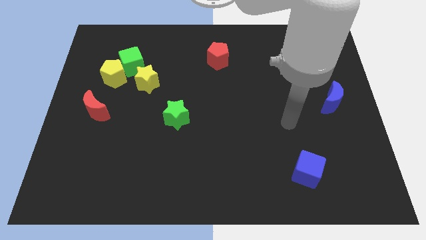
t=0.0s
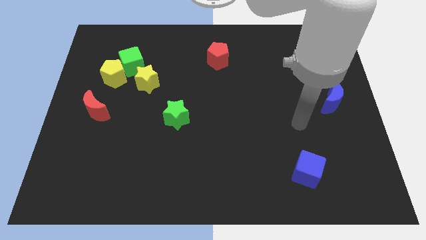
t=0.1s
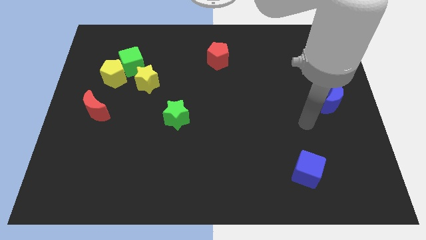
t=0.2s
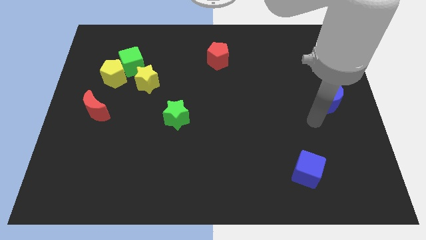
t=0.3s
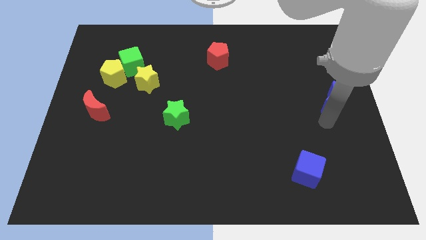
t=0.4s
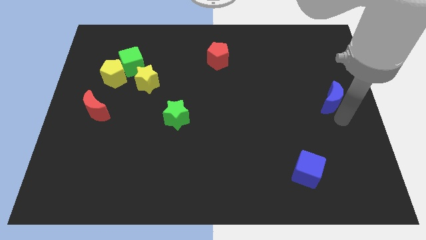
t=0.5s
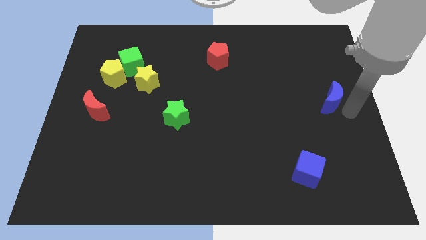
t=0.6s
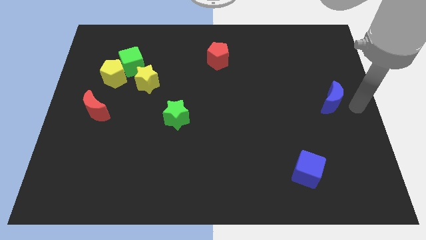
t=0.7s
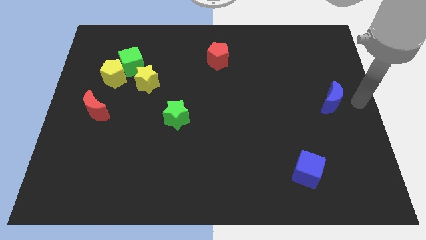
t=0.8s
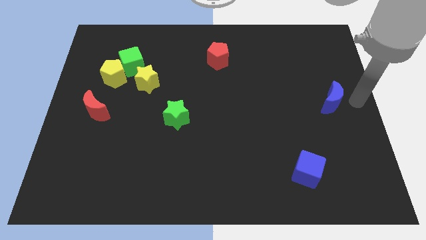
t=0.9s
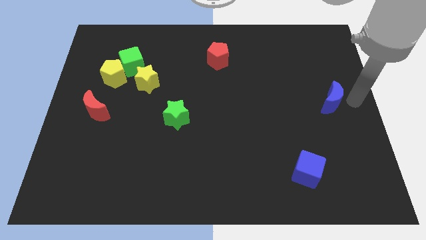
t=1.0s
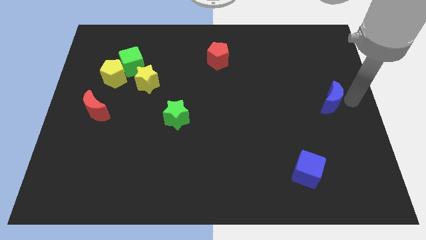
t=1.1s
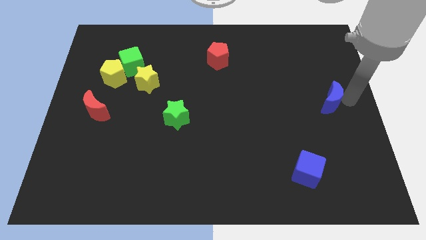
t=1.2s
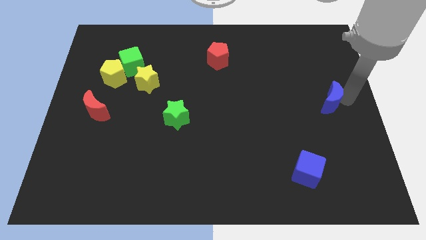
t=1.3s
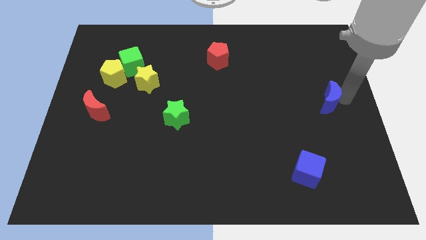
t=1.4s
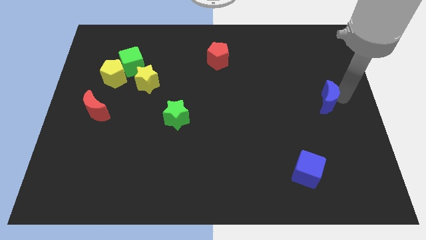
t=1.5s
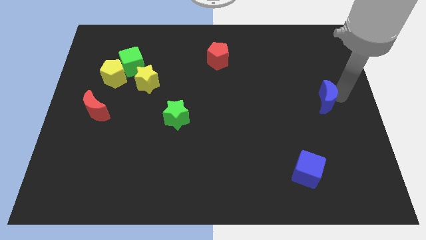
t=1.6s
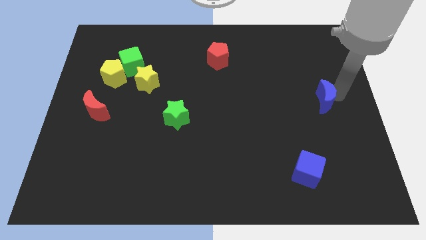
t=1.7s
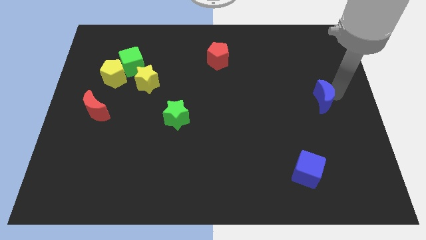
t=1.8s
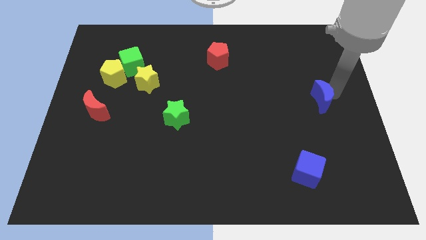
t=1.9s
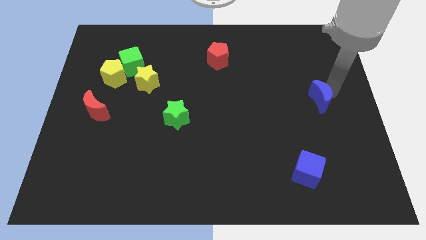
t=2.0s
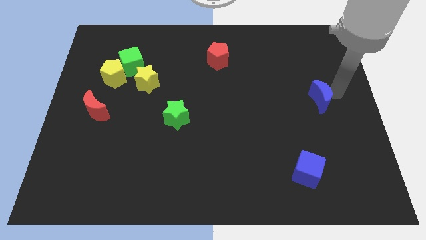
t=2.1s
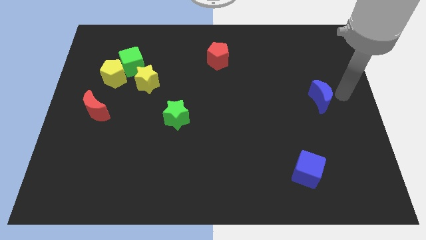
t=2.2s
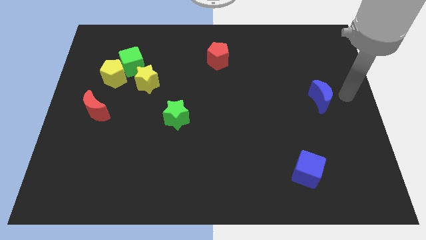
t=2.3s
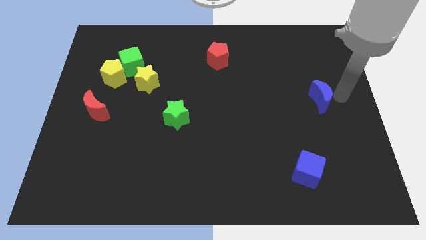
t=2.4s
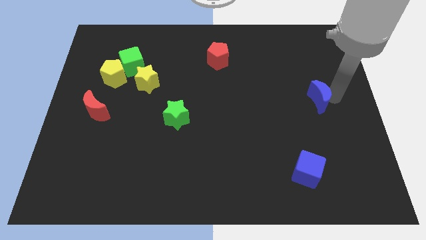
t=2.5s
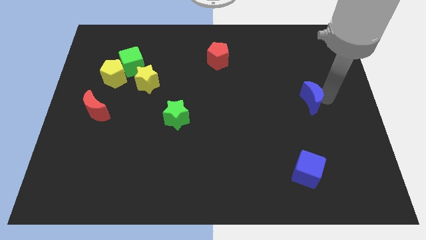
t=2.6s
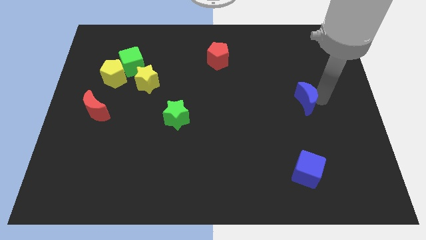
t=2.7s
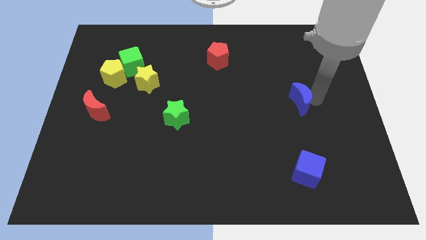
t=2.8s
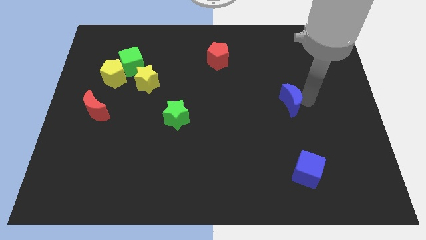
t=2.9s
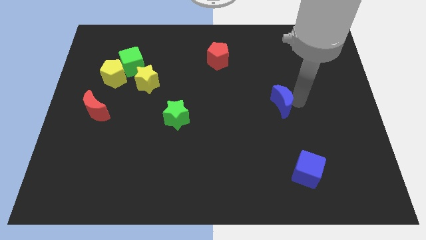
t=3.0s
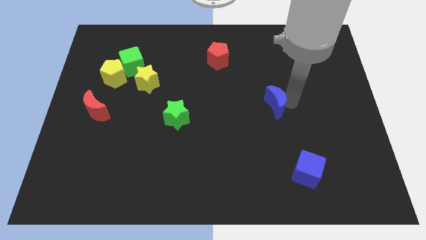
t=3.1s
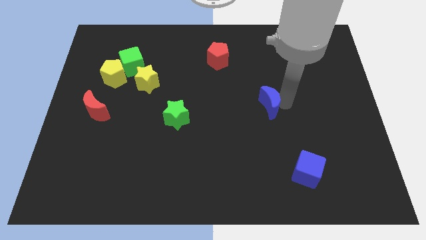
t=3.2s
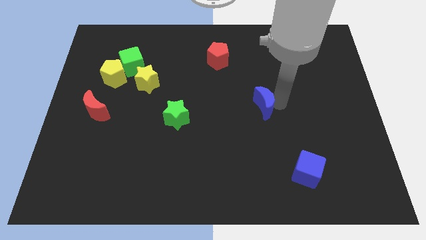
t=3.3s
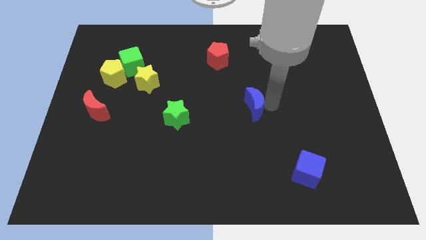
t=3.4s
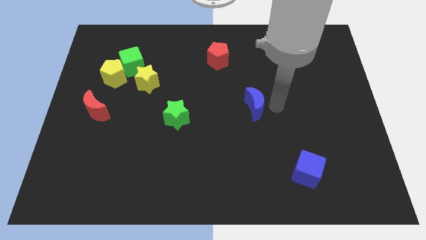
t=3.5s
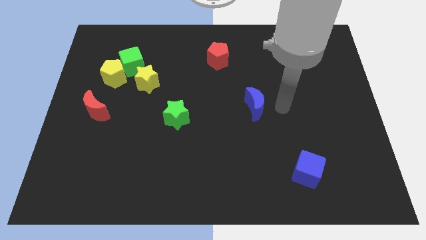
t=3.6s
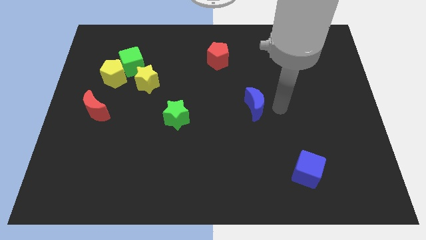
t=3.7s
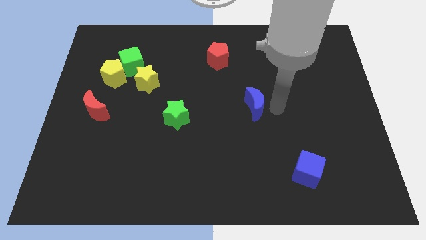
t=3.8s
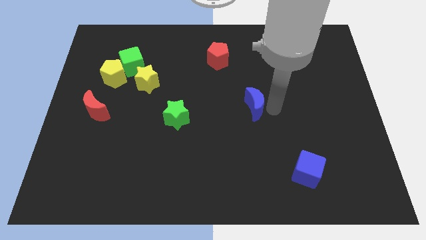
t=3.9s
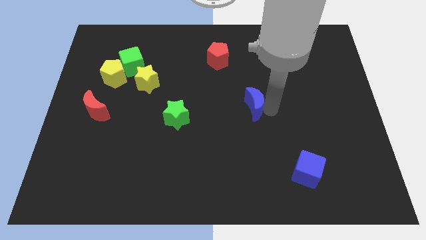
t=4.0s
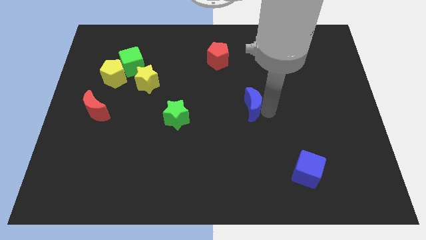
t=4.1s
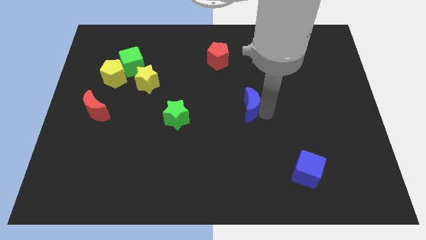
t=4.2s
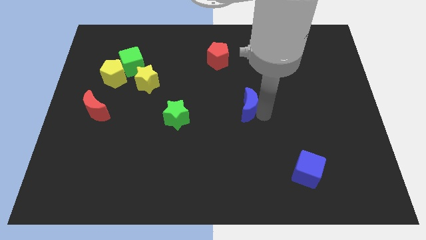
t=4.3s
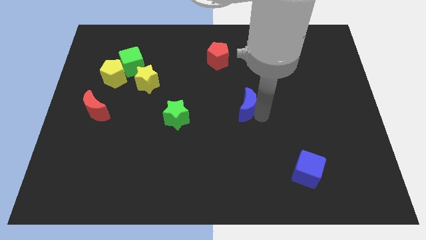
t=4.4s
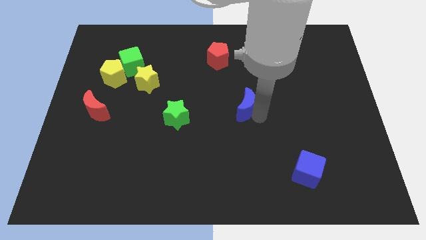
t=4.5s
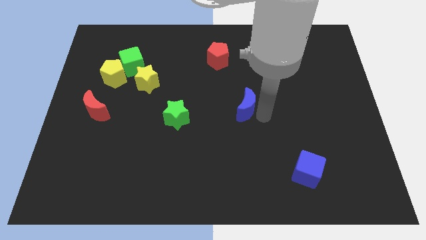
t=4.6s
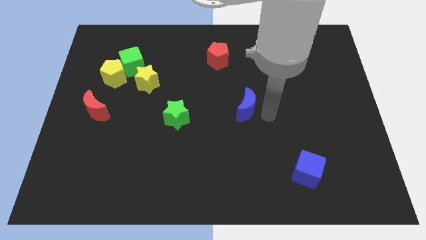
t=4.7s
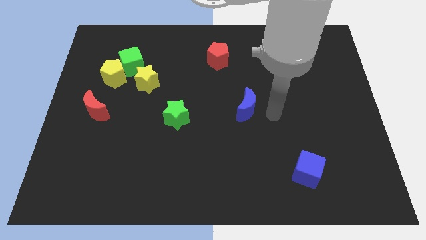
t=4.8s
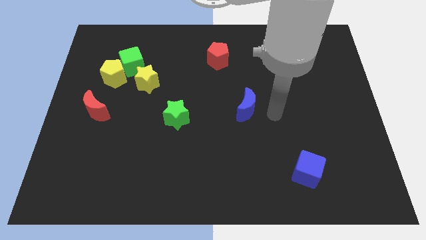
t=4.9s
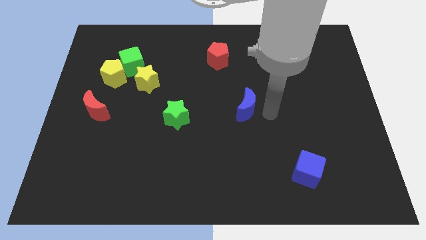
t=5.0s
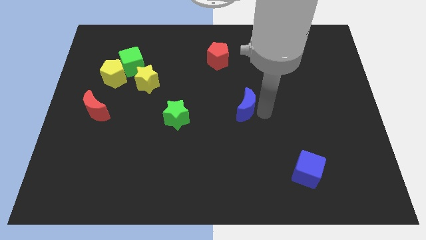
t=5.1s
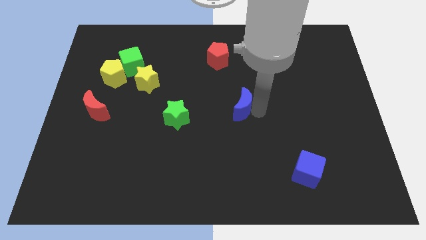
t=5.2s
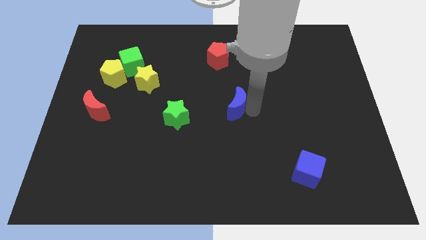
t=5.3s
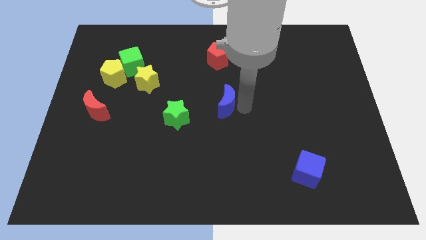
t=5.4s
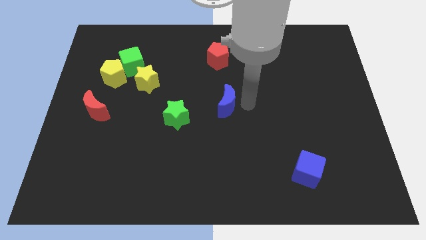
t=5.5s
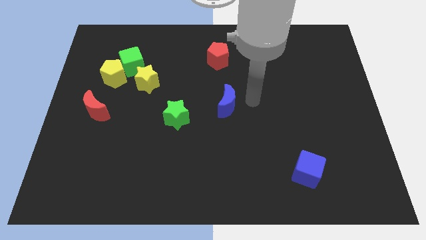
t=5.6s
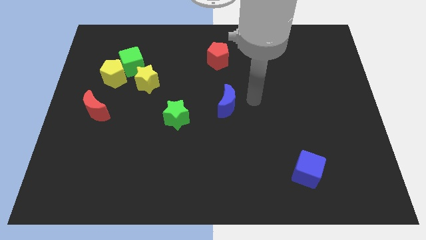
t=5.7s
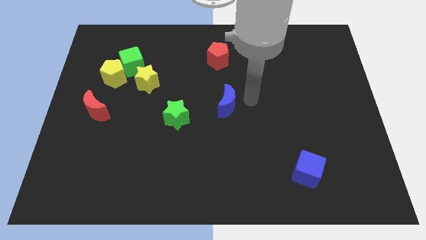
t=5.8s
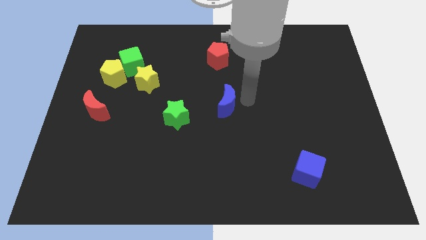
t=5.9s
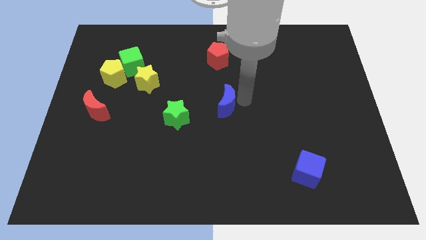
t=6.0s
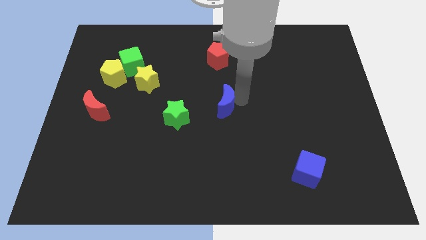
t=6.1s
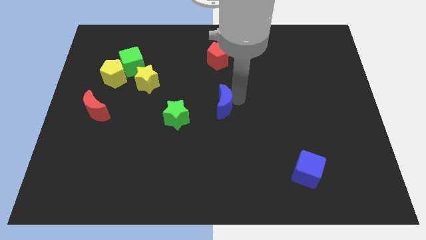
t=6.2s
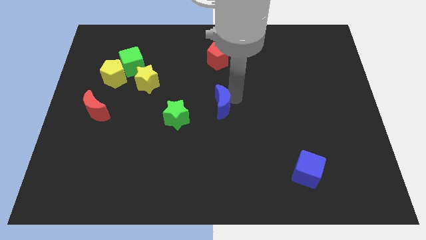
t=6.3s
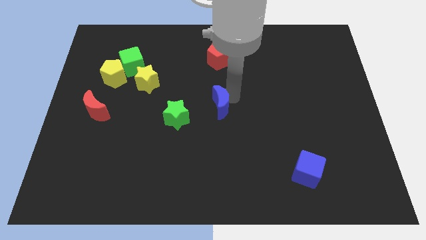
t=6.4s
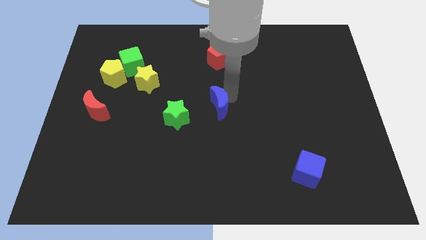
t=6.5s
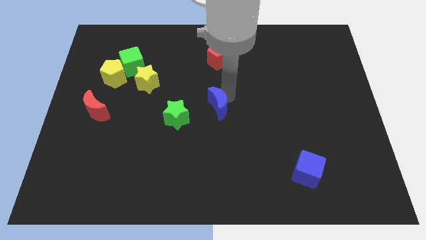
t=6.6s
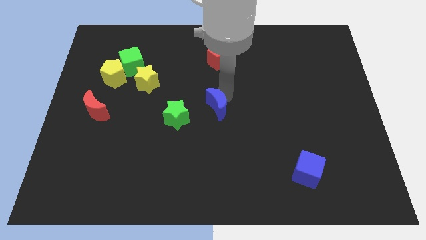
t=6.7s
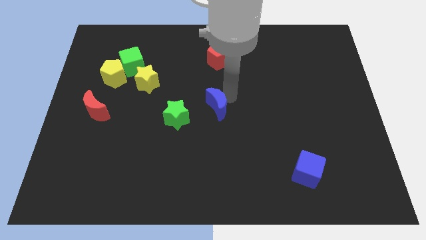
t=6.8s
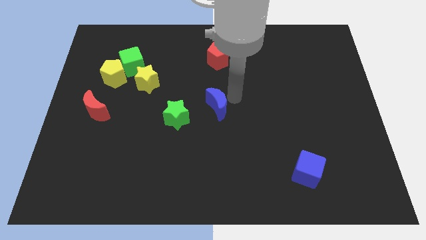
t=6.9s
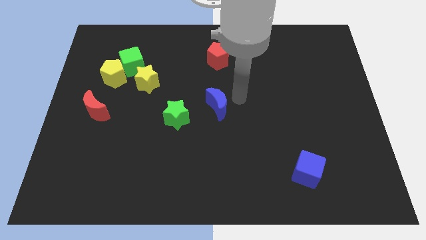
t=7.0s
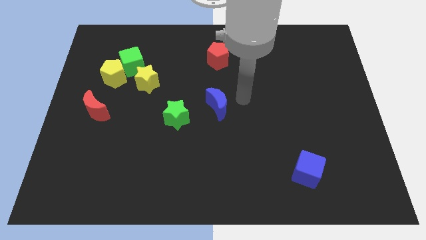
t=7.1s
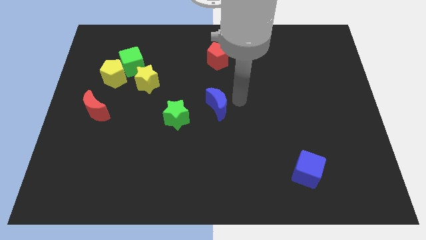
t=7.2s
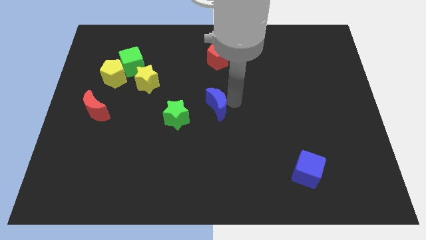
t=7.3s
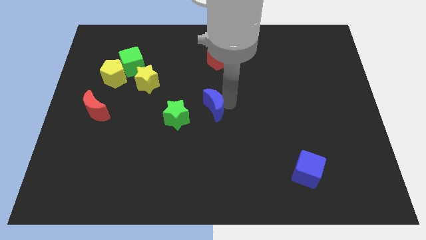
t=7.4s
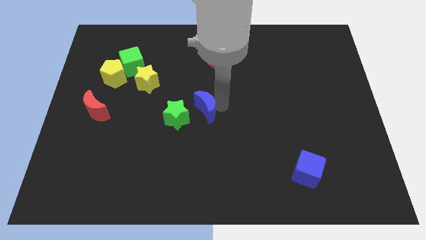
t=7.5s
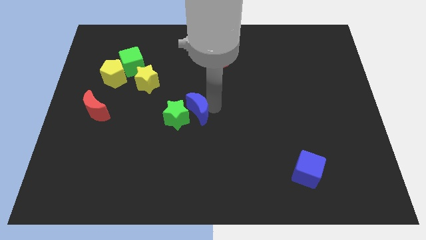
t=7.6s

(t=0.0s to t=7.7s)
push the blue moon next to the green star
